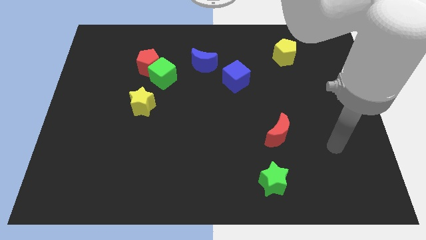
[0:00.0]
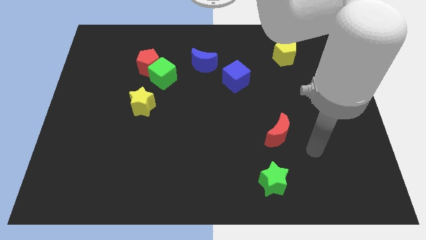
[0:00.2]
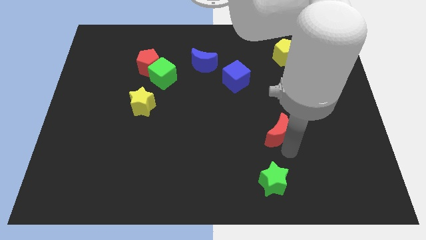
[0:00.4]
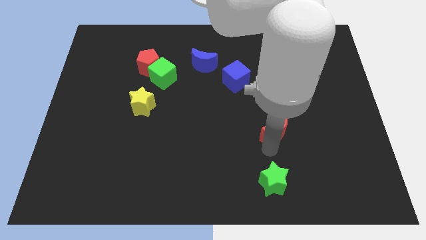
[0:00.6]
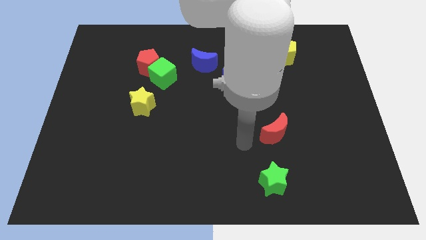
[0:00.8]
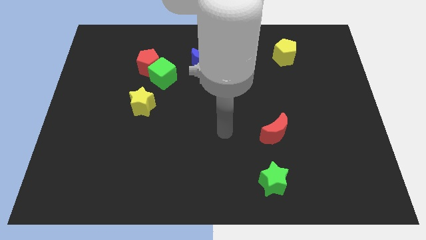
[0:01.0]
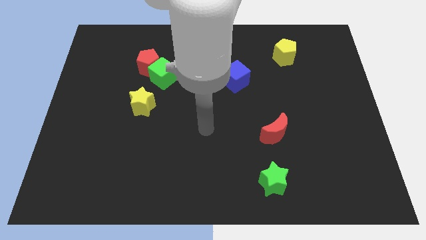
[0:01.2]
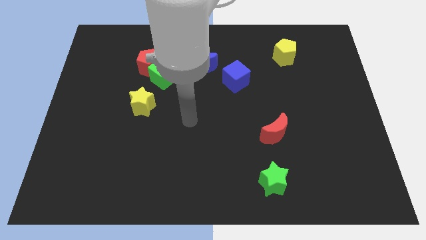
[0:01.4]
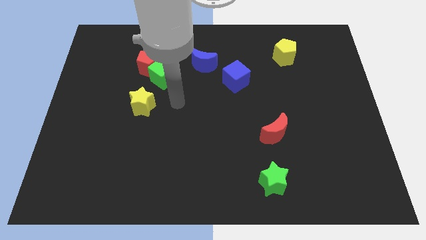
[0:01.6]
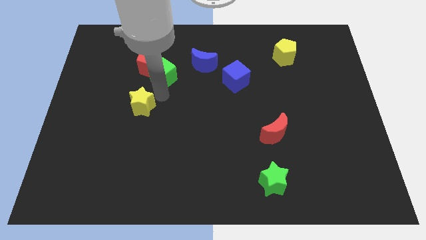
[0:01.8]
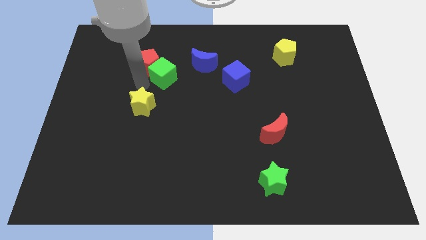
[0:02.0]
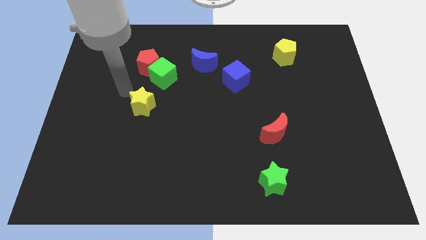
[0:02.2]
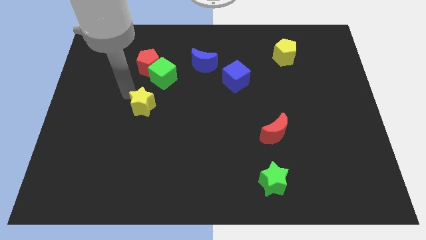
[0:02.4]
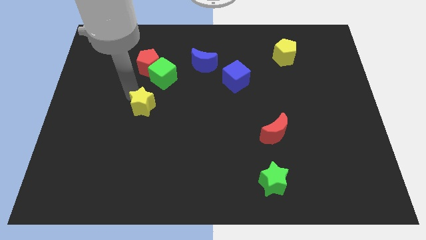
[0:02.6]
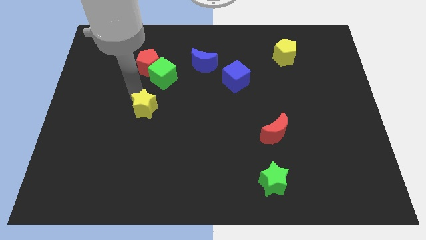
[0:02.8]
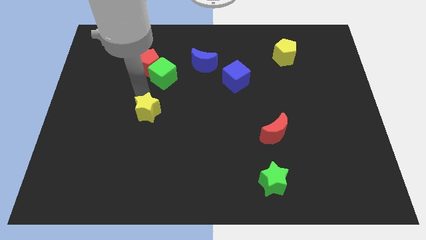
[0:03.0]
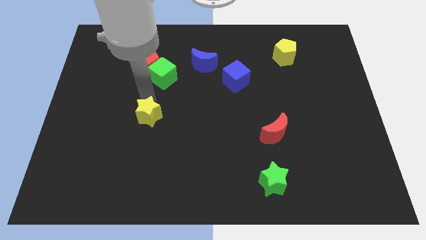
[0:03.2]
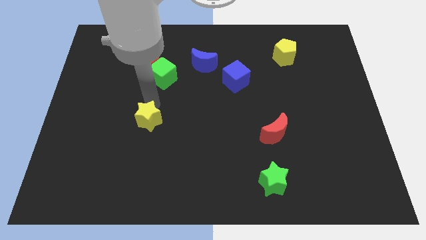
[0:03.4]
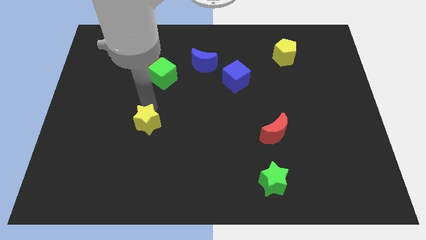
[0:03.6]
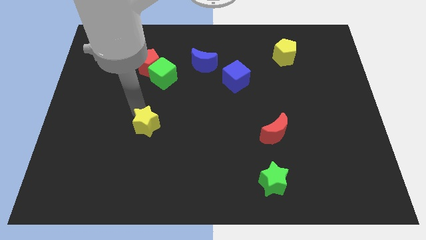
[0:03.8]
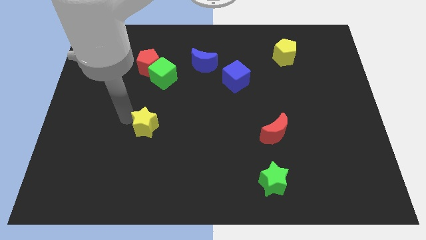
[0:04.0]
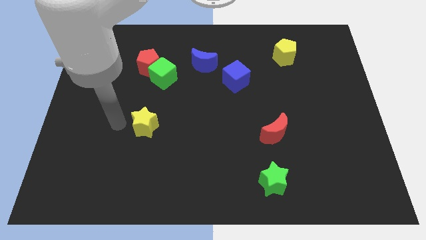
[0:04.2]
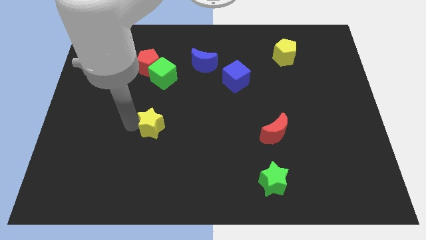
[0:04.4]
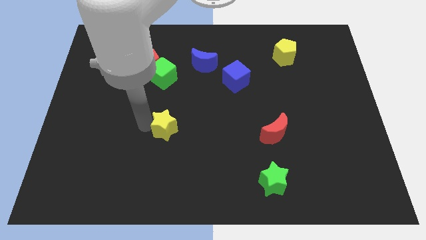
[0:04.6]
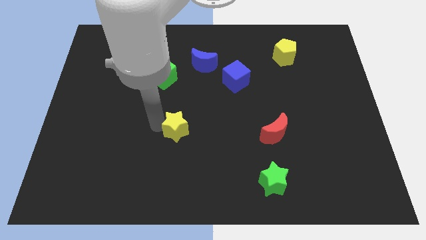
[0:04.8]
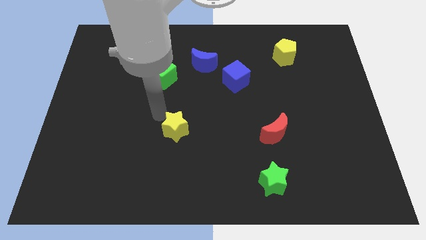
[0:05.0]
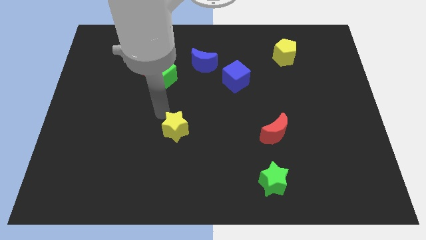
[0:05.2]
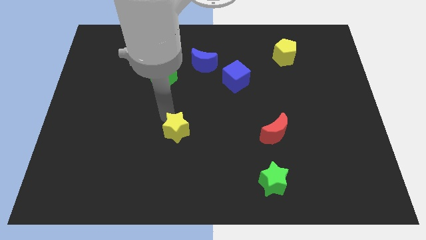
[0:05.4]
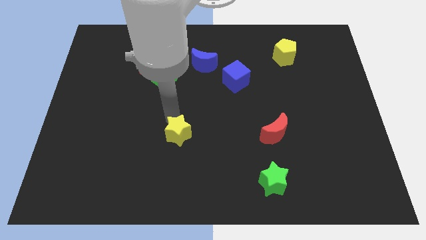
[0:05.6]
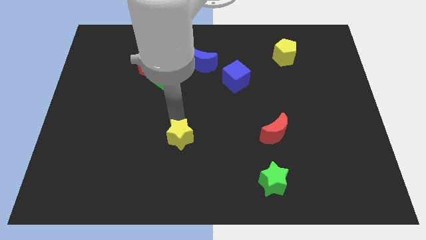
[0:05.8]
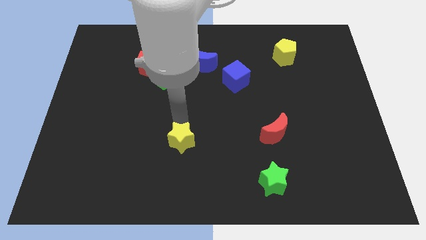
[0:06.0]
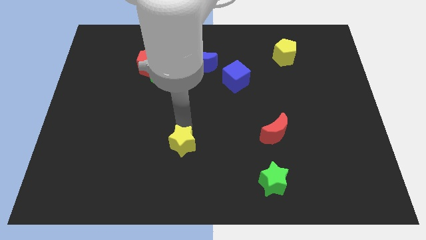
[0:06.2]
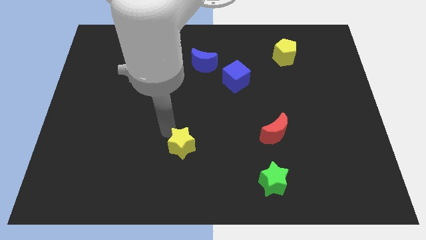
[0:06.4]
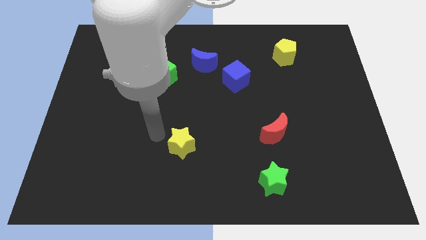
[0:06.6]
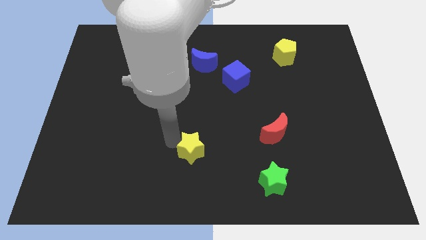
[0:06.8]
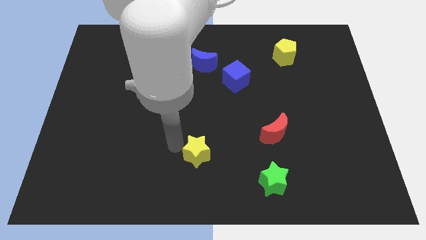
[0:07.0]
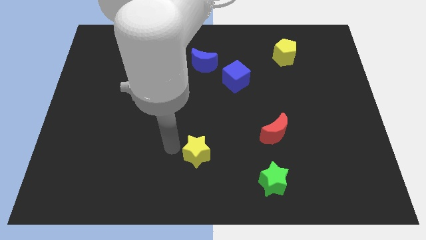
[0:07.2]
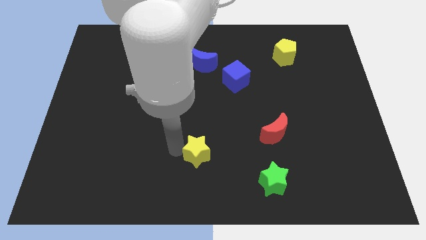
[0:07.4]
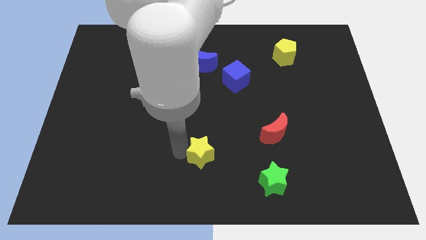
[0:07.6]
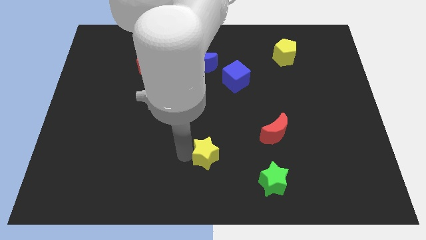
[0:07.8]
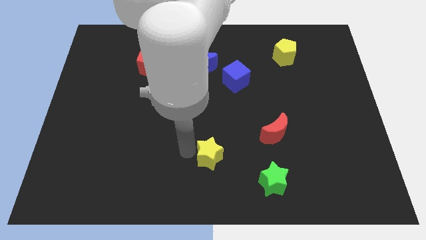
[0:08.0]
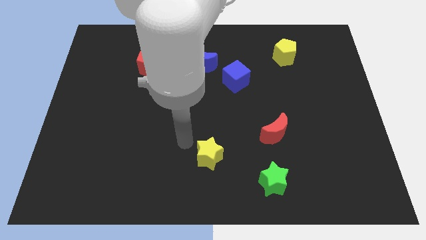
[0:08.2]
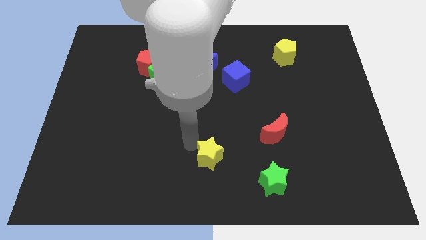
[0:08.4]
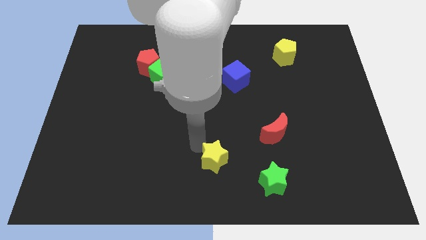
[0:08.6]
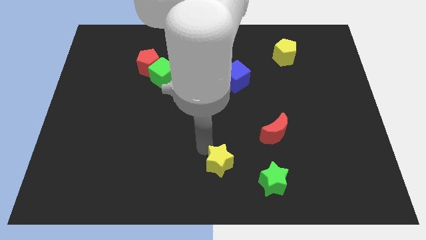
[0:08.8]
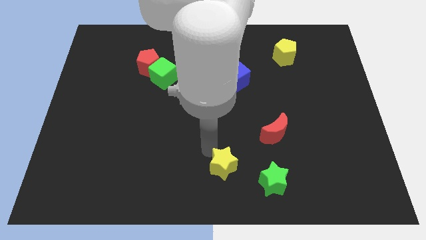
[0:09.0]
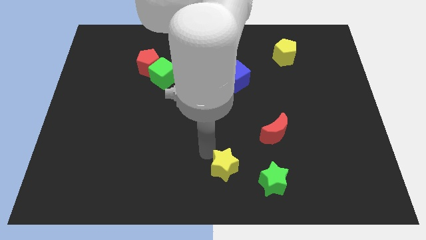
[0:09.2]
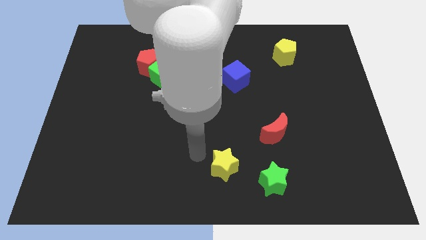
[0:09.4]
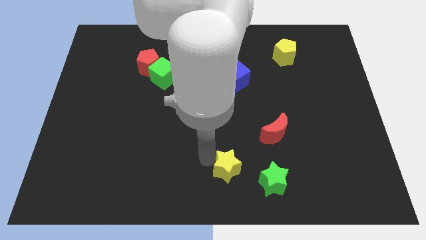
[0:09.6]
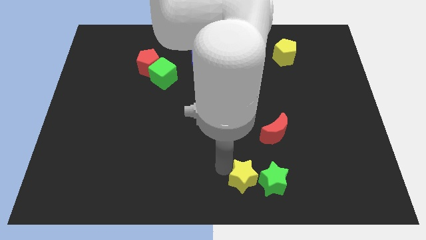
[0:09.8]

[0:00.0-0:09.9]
move the yellow star next to the green star

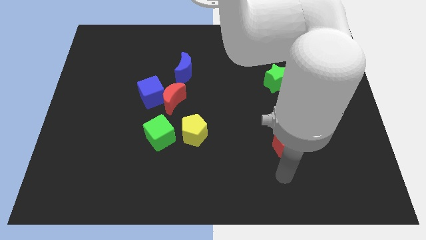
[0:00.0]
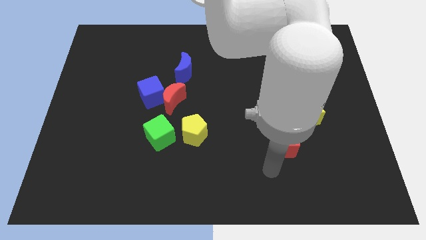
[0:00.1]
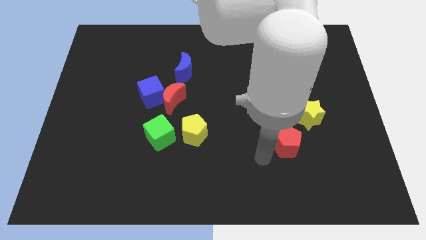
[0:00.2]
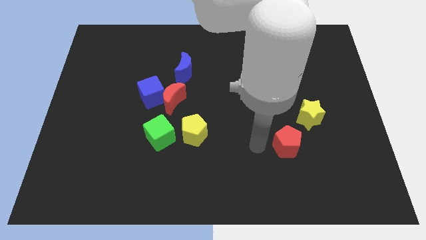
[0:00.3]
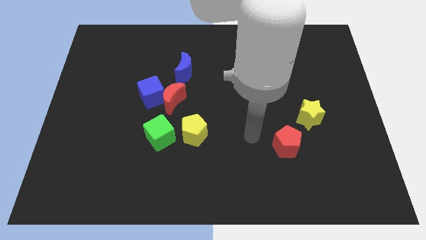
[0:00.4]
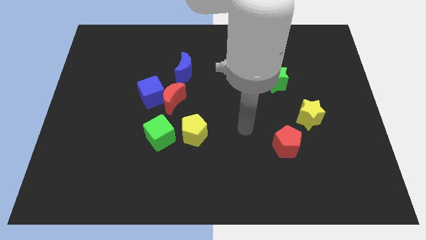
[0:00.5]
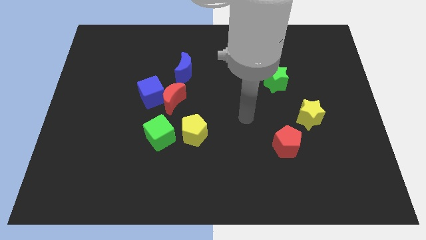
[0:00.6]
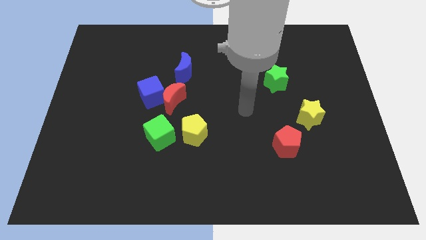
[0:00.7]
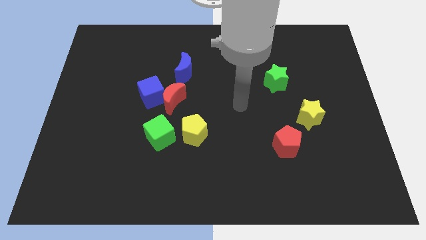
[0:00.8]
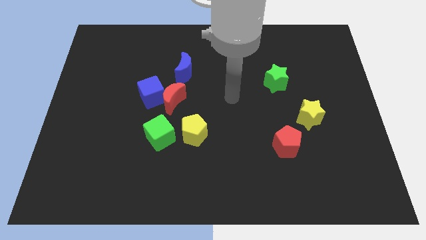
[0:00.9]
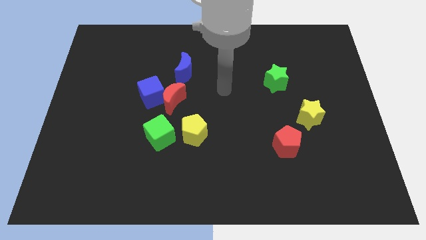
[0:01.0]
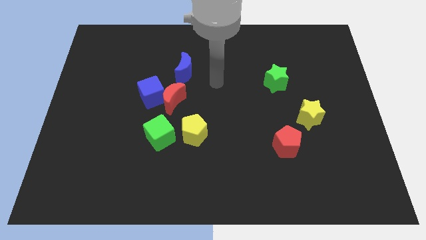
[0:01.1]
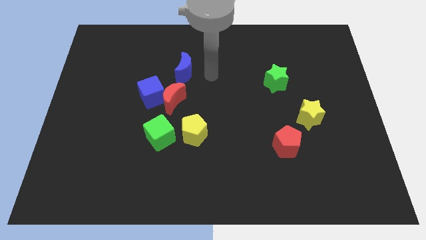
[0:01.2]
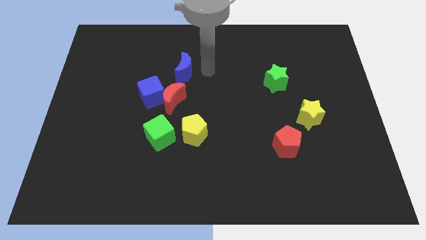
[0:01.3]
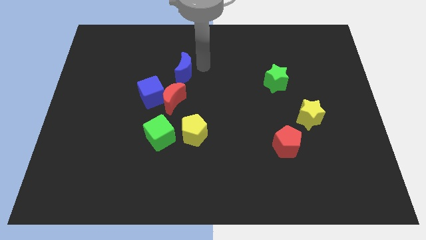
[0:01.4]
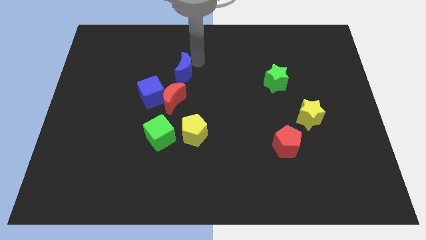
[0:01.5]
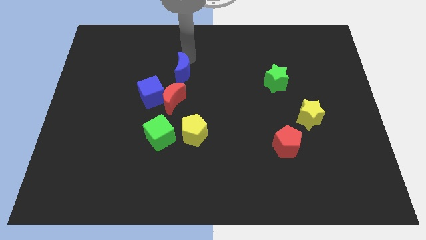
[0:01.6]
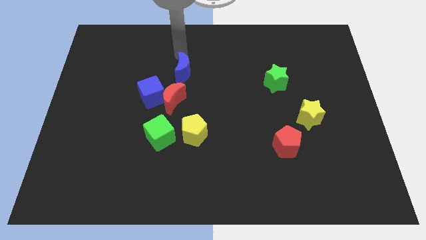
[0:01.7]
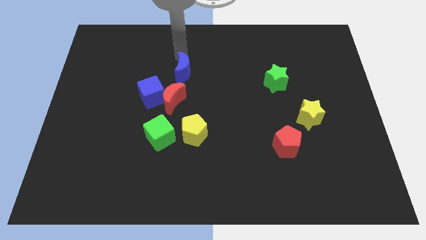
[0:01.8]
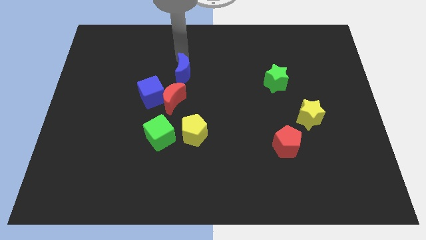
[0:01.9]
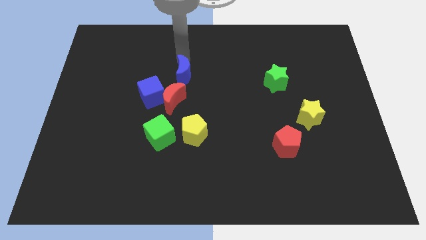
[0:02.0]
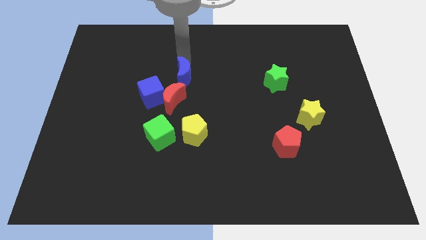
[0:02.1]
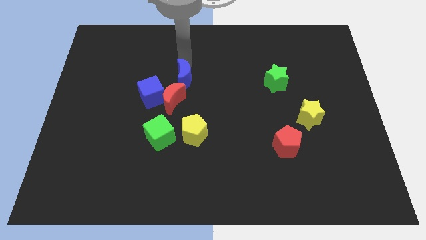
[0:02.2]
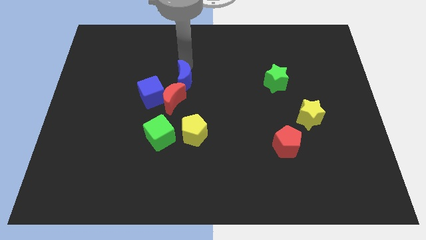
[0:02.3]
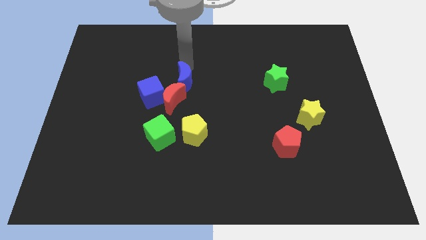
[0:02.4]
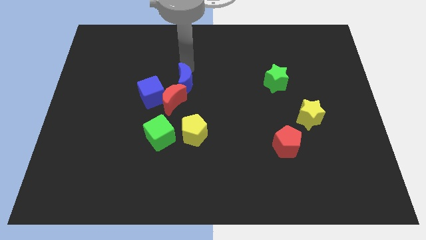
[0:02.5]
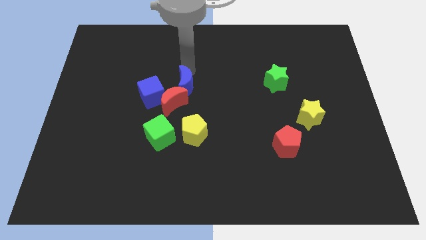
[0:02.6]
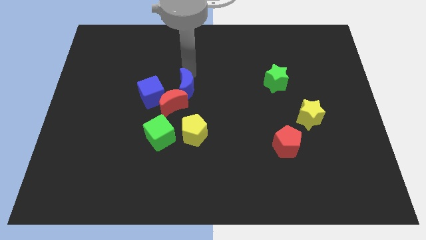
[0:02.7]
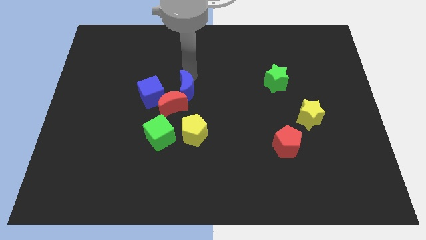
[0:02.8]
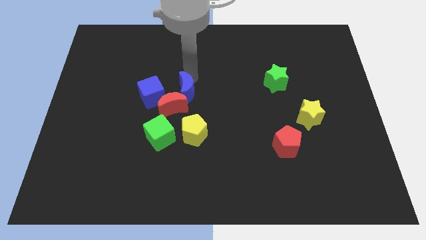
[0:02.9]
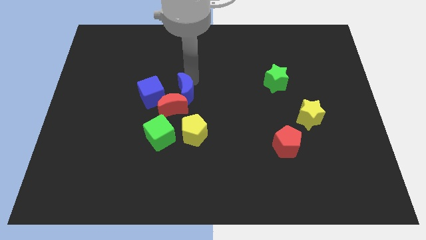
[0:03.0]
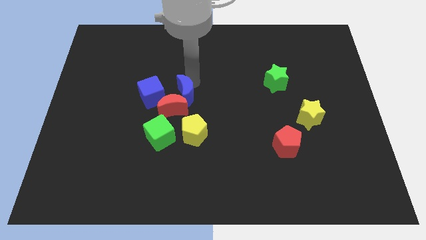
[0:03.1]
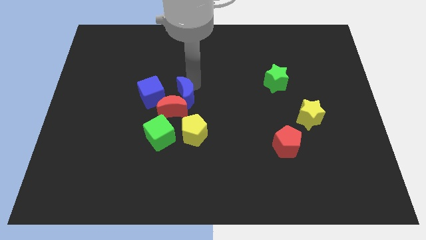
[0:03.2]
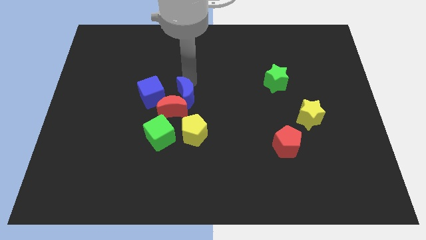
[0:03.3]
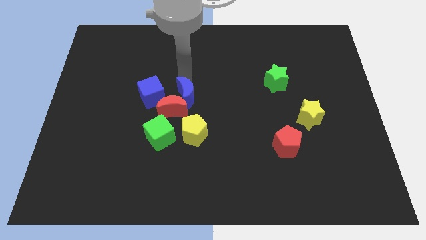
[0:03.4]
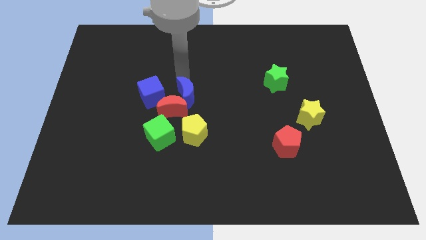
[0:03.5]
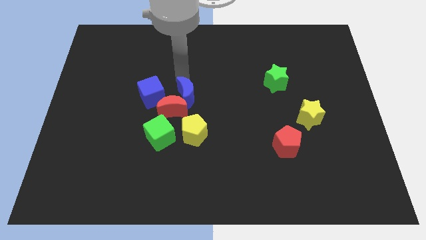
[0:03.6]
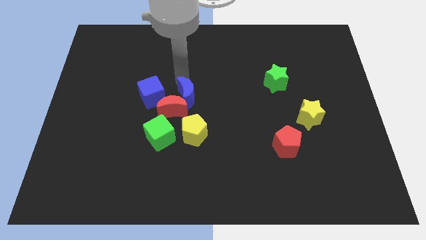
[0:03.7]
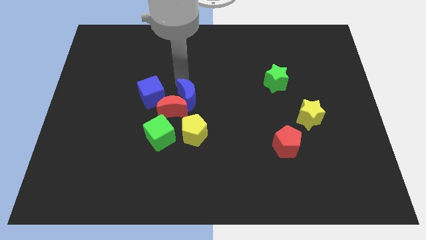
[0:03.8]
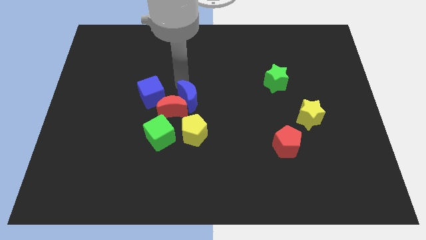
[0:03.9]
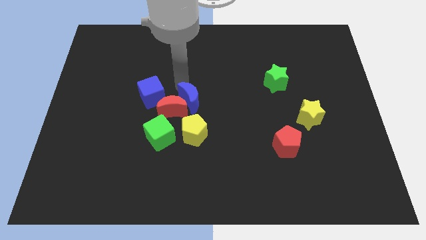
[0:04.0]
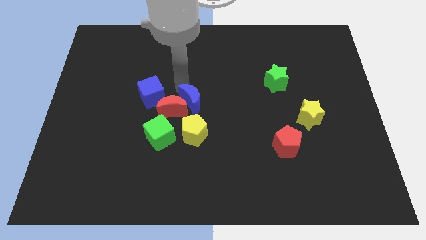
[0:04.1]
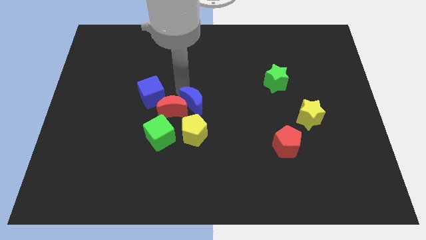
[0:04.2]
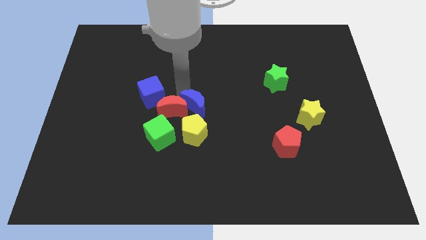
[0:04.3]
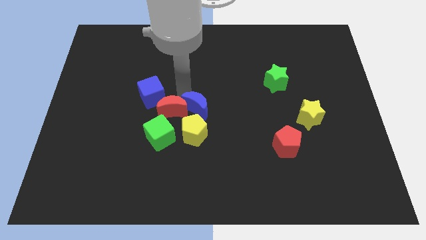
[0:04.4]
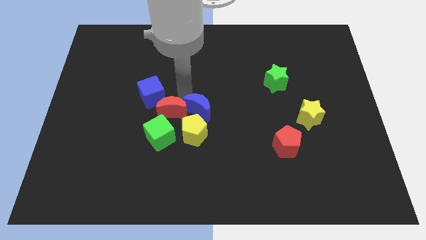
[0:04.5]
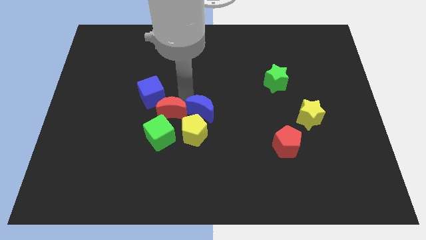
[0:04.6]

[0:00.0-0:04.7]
push the blue moon to the yellow pentagon
